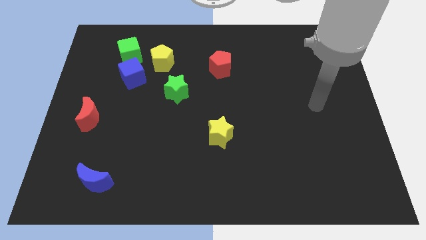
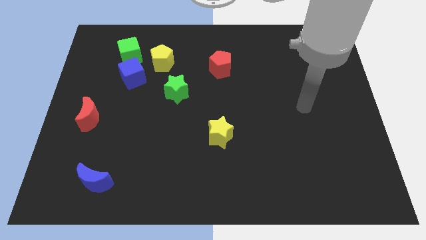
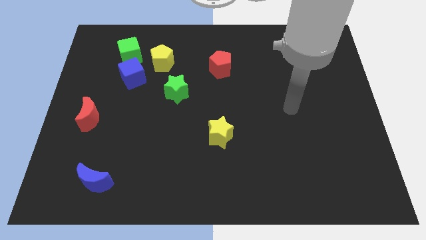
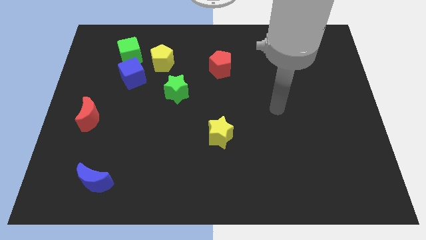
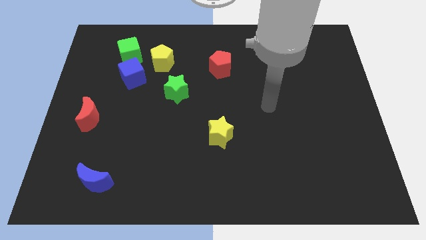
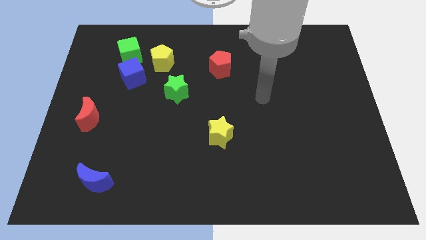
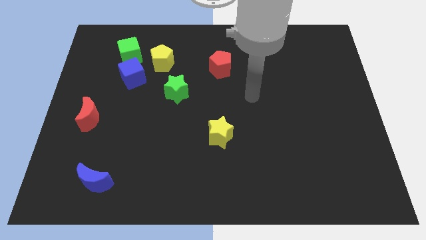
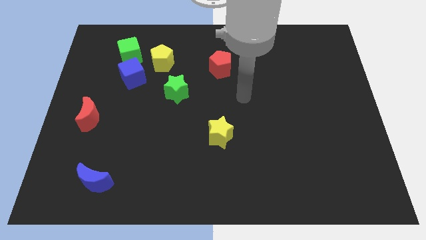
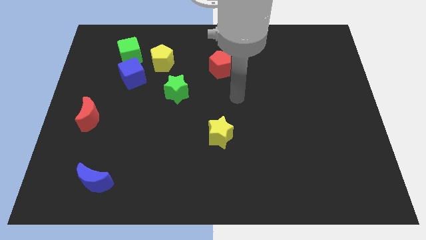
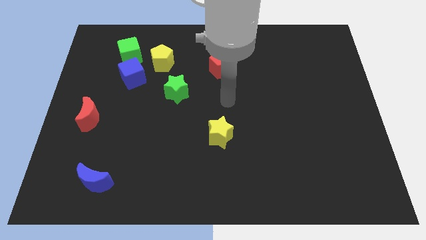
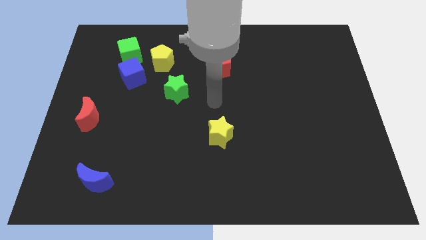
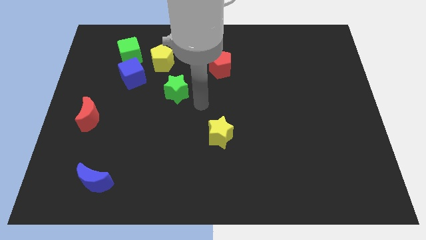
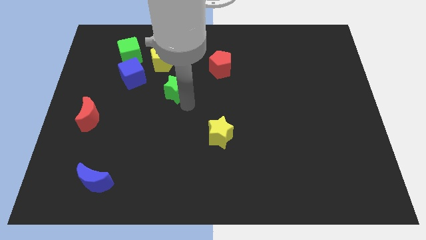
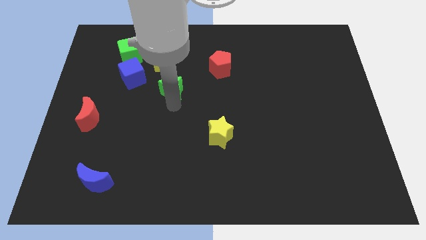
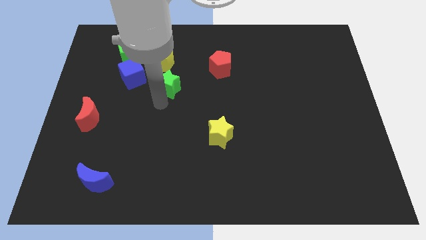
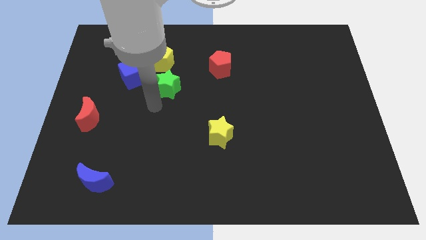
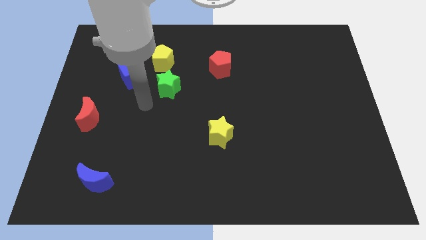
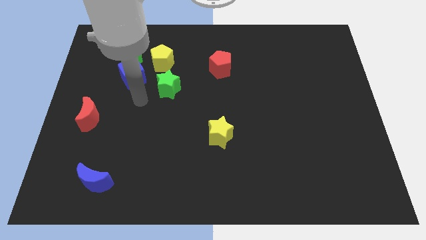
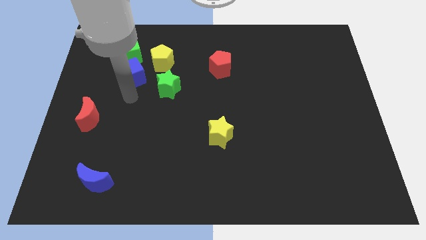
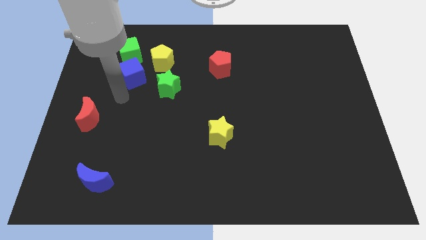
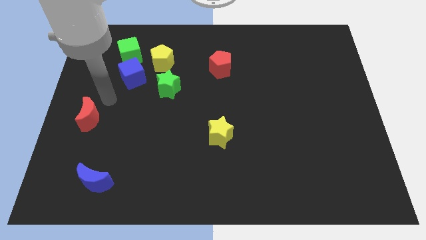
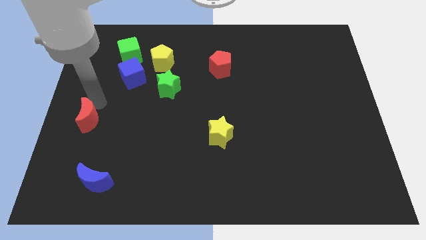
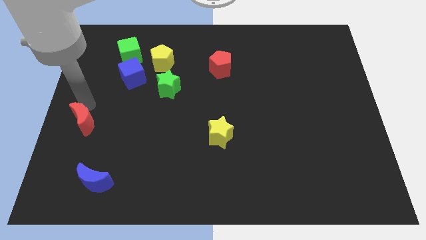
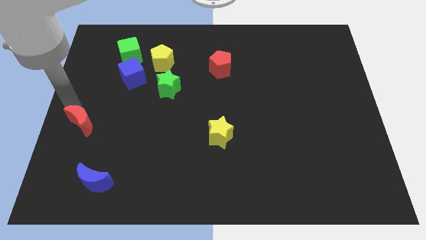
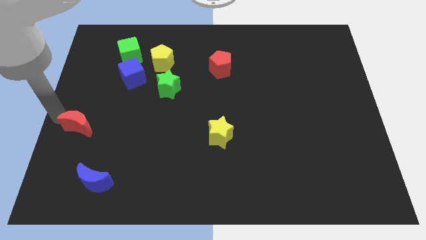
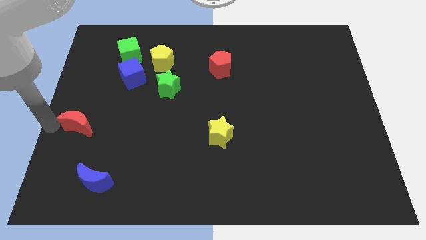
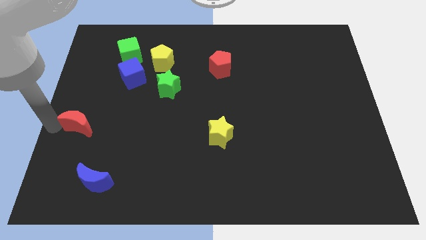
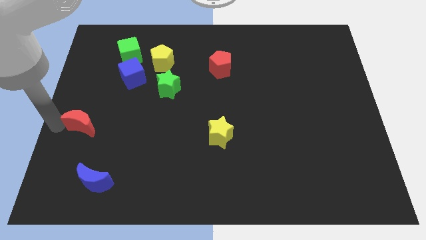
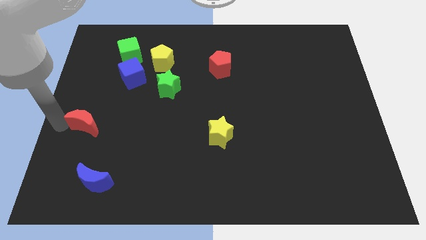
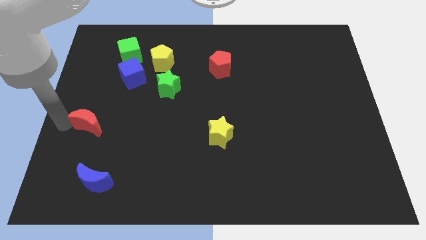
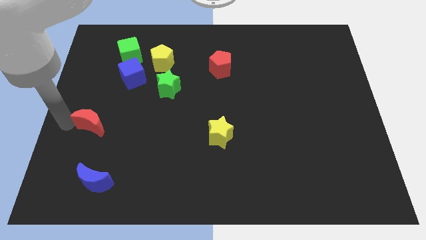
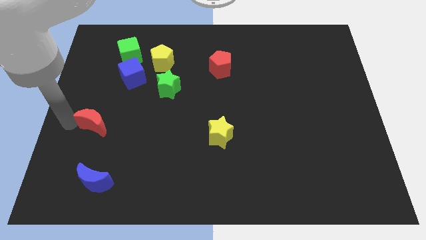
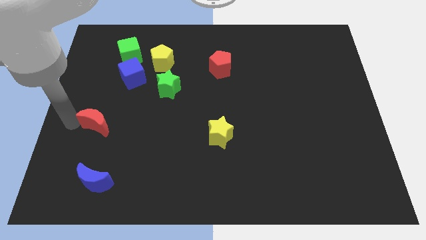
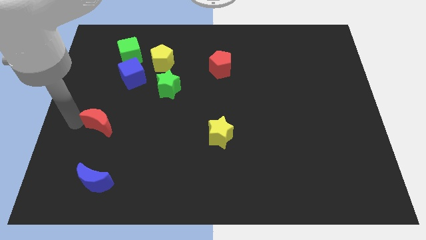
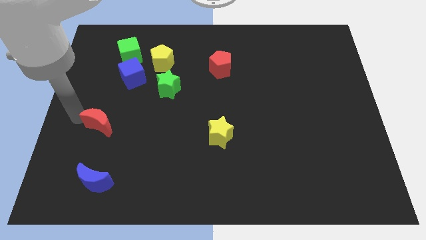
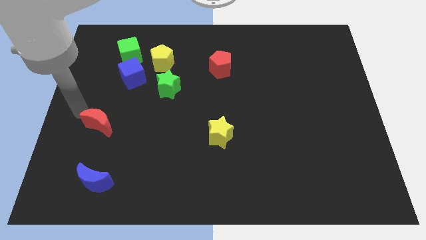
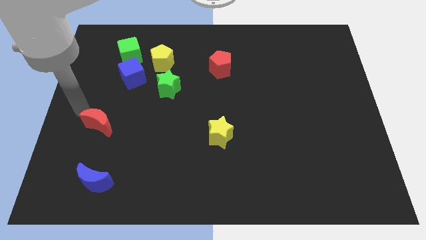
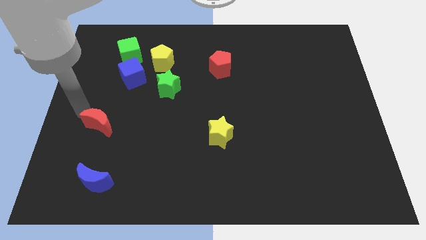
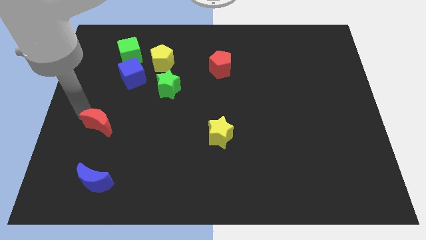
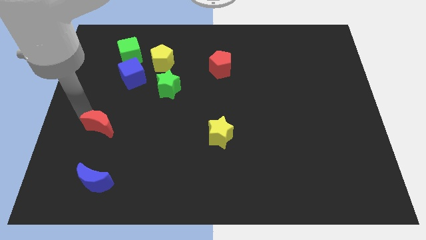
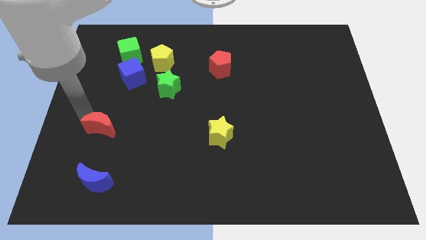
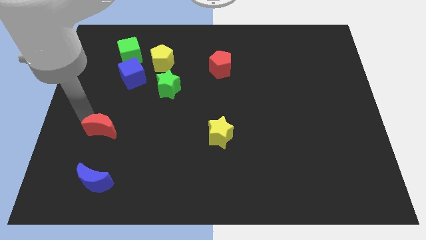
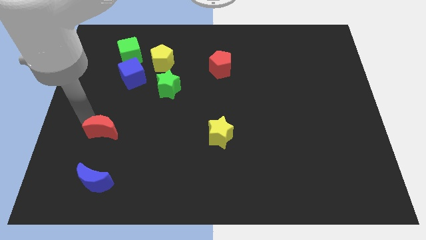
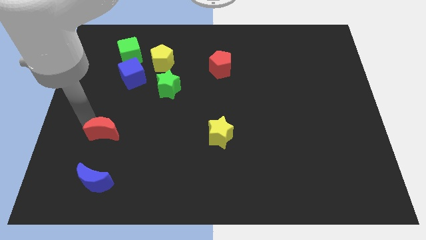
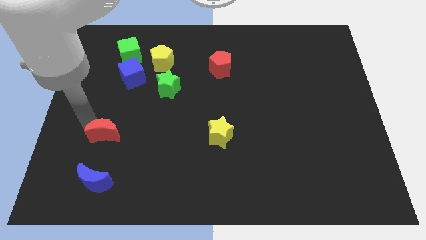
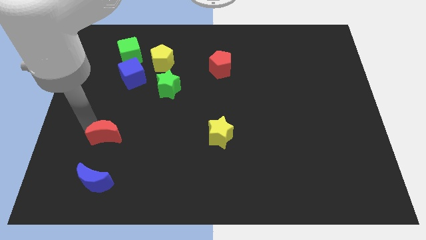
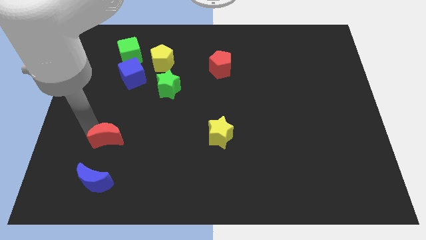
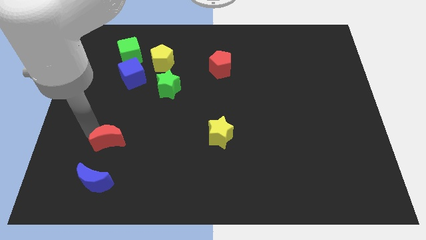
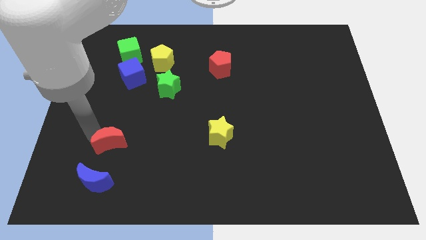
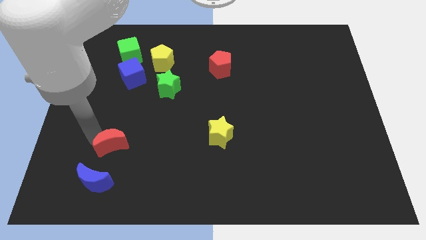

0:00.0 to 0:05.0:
move the red moon to the top right of the blue moon

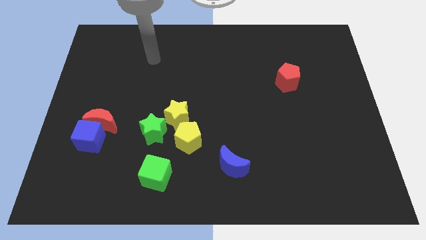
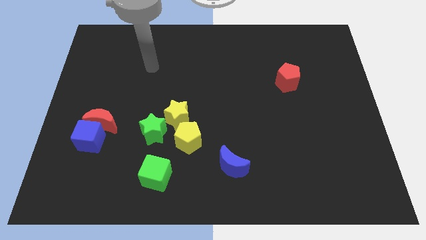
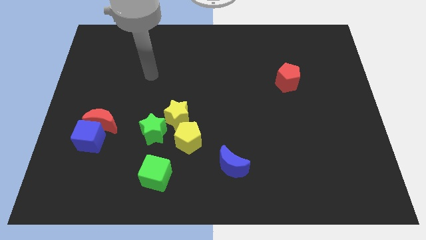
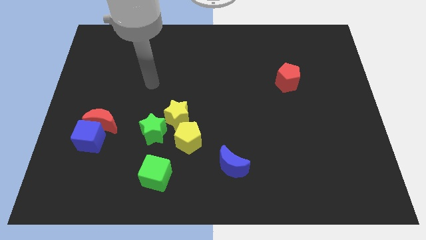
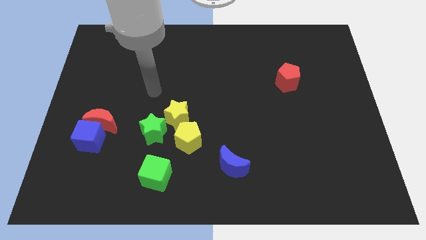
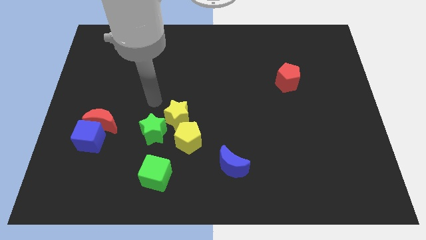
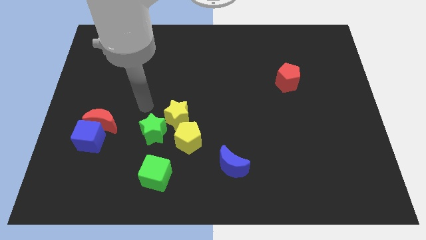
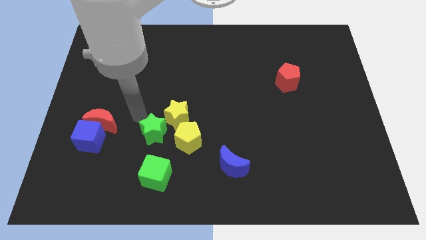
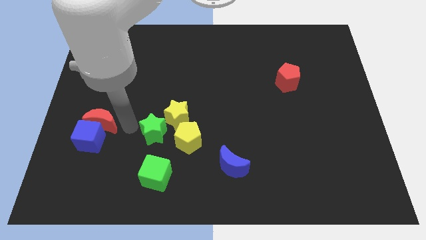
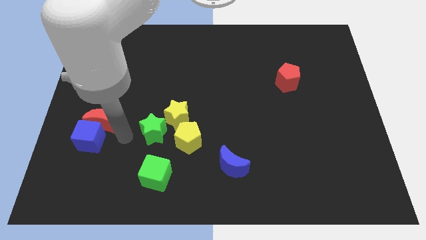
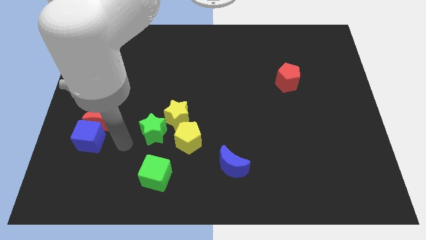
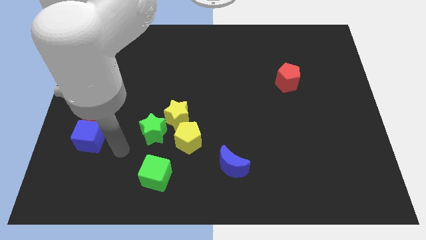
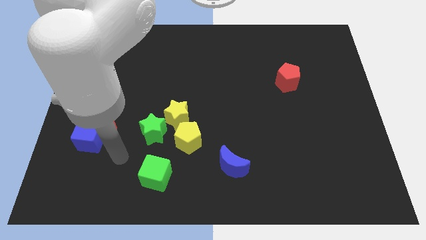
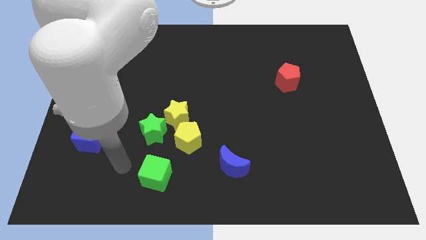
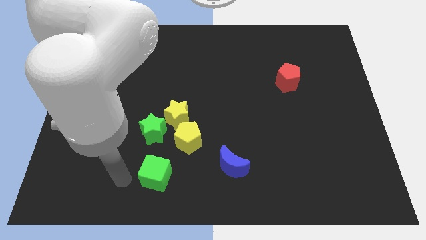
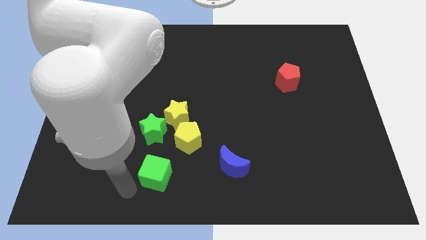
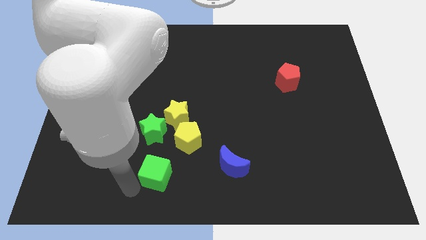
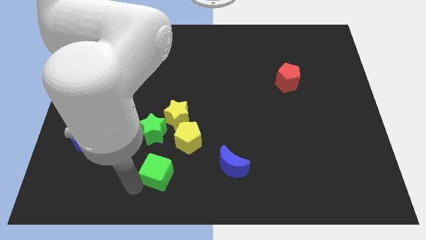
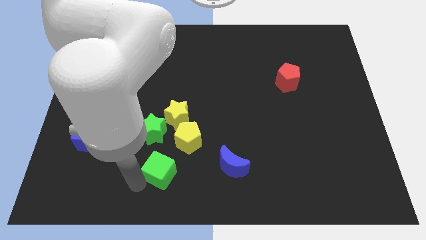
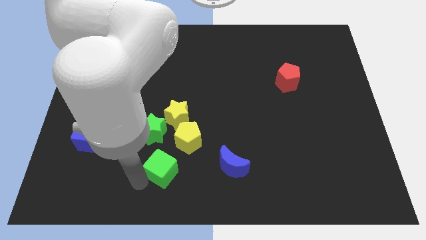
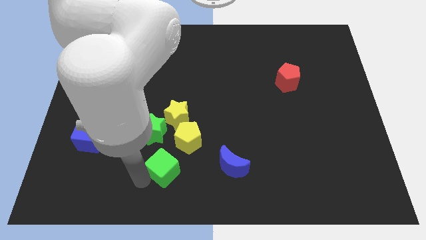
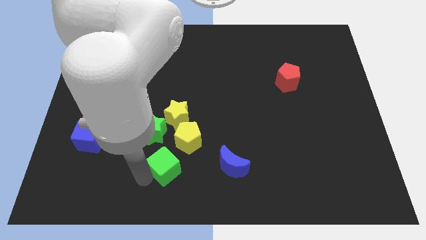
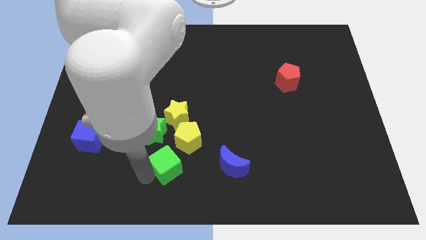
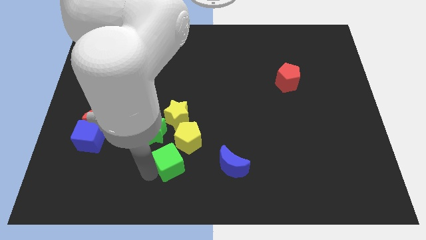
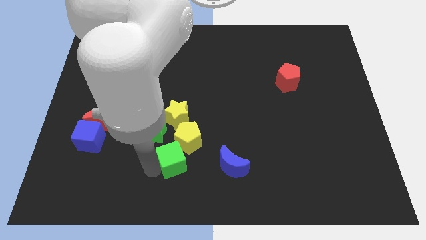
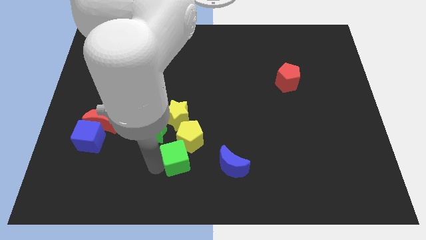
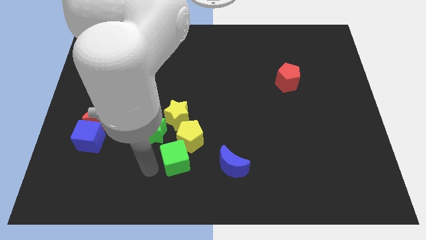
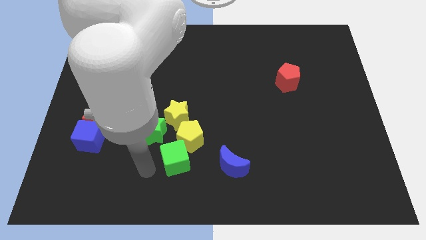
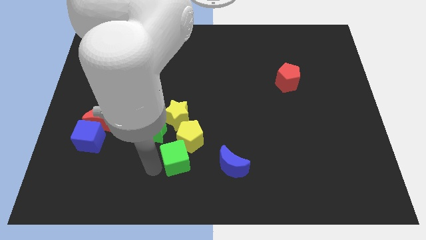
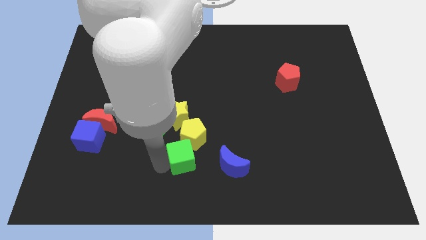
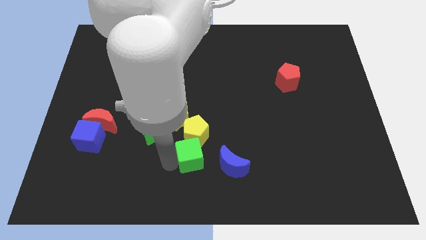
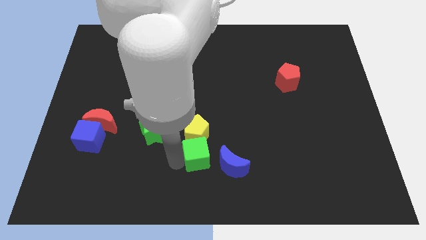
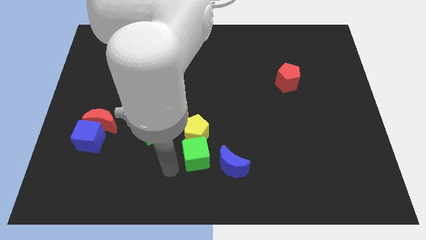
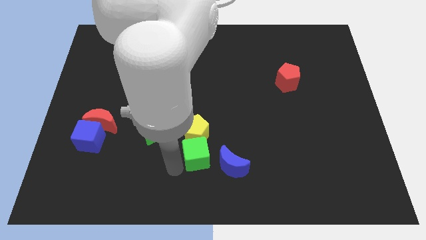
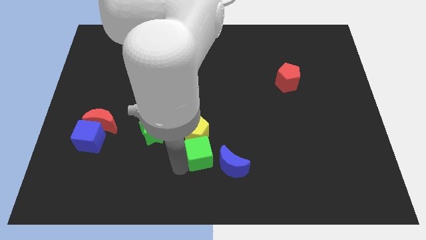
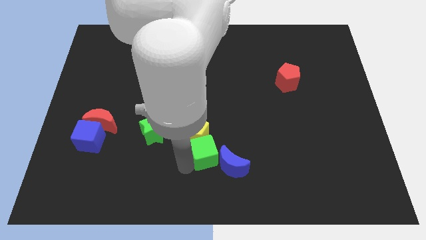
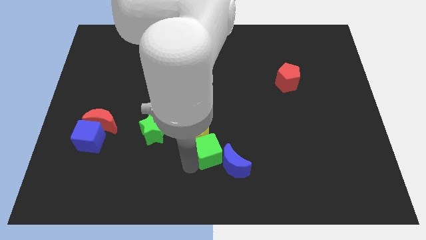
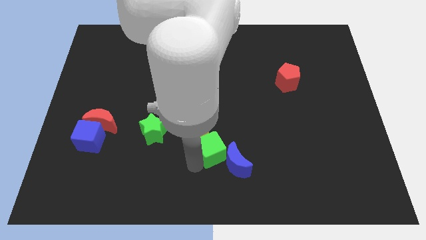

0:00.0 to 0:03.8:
slide the green cube to the right side of the yellow pentagon
